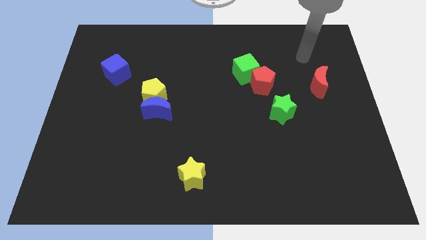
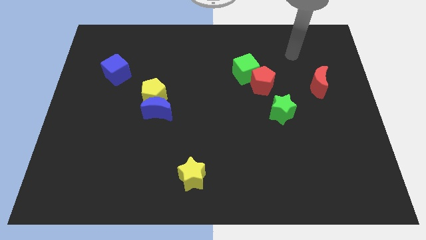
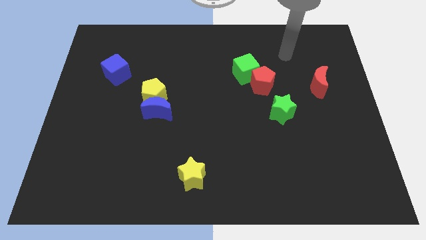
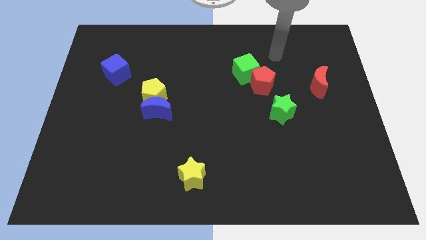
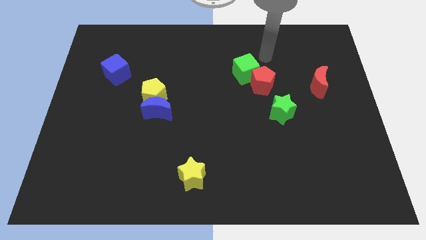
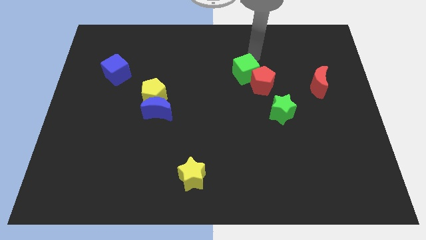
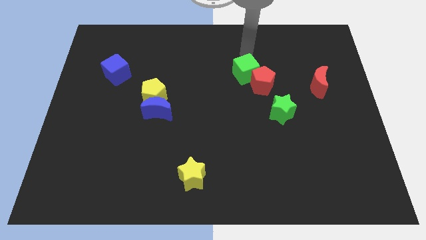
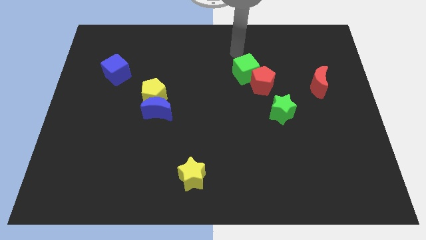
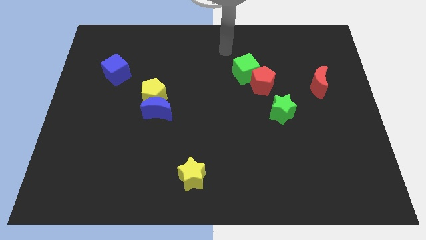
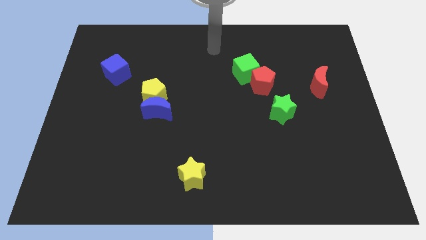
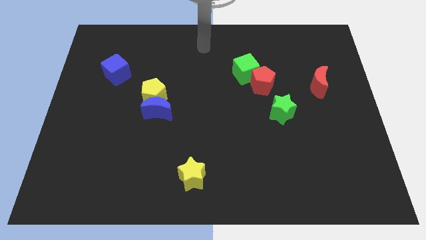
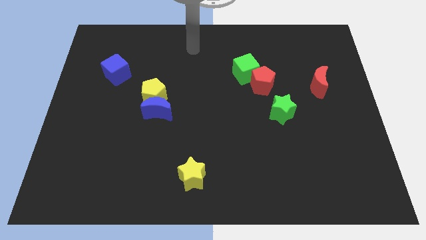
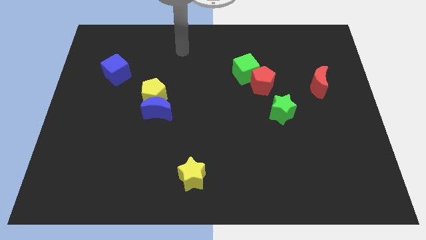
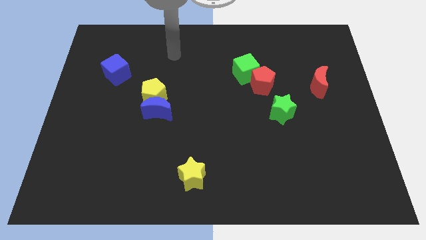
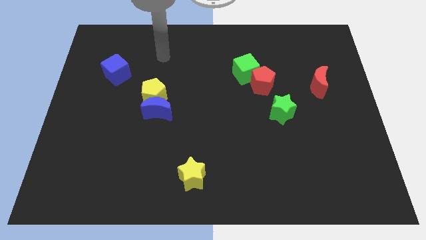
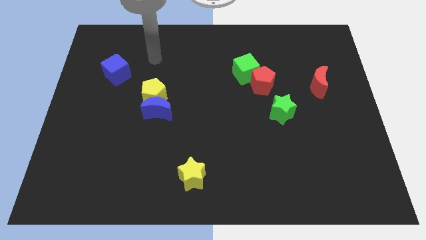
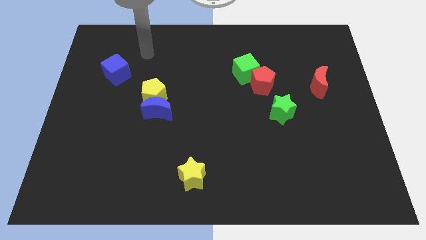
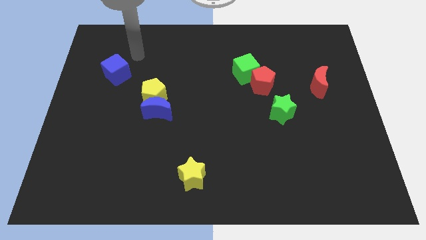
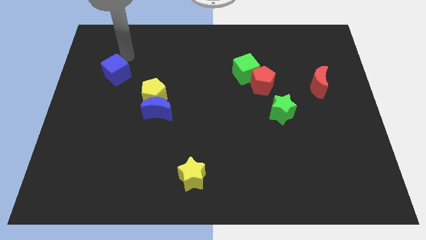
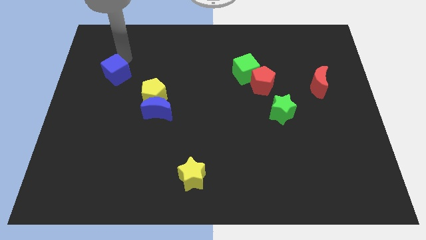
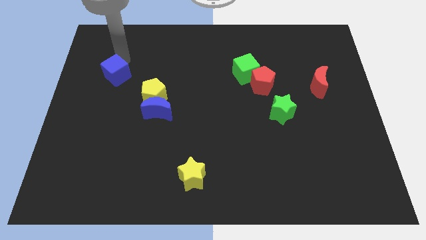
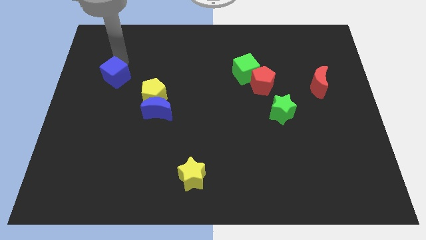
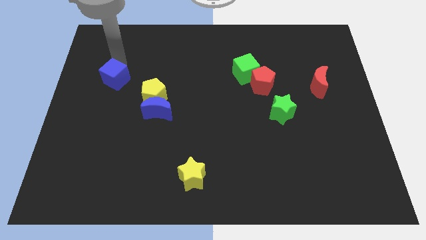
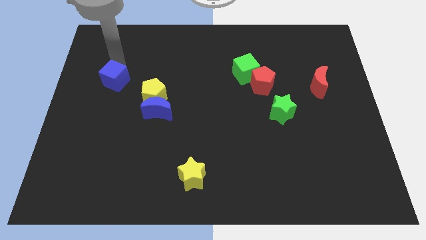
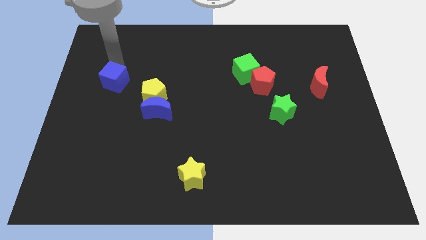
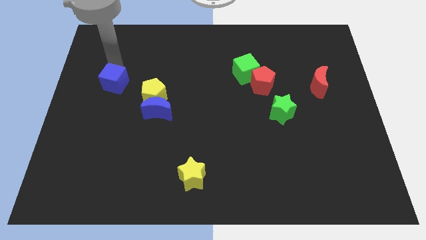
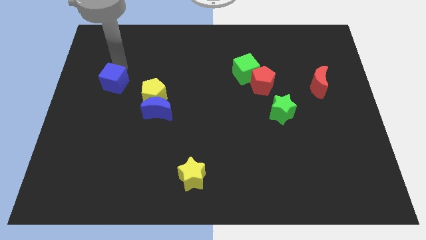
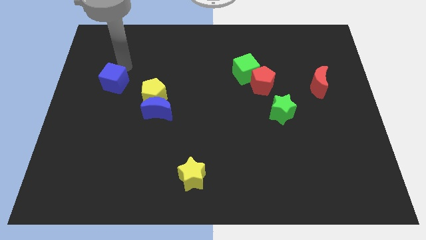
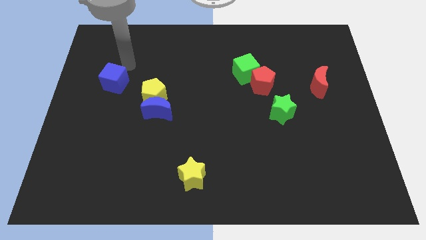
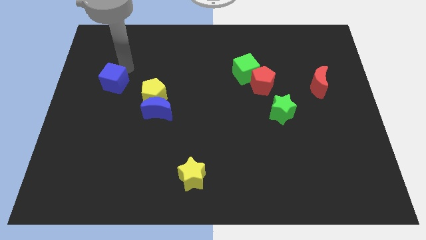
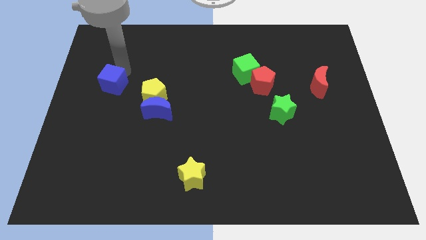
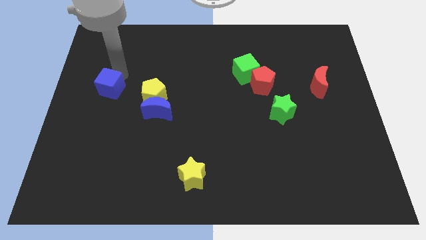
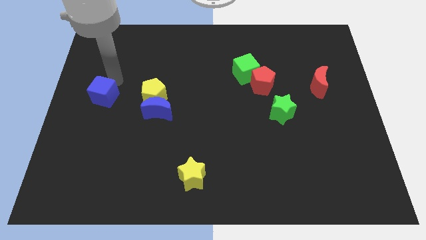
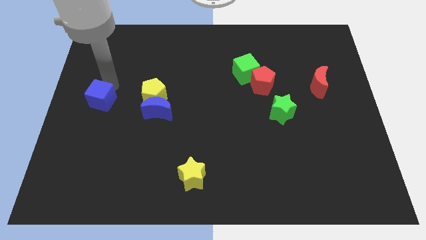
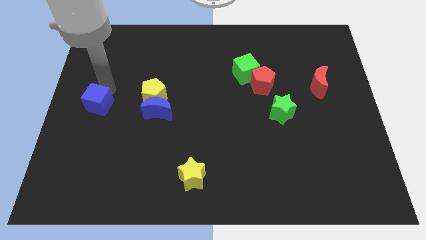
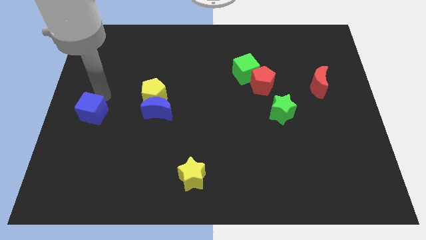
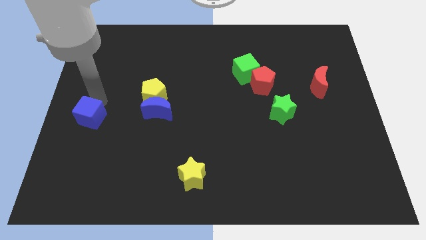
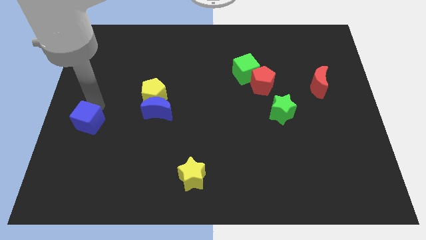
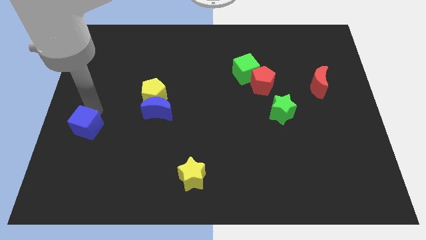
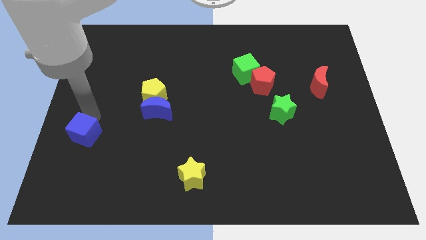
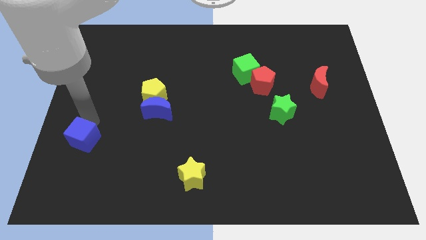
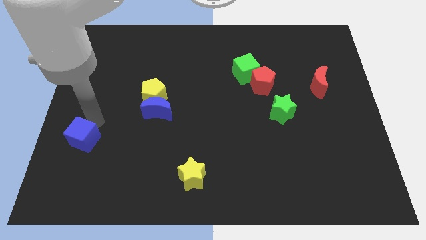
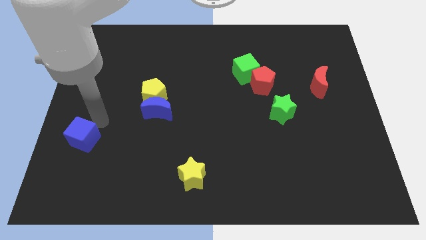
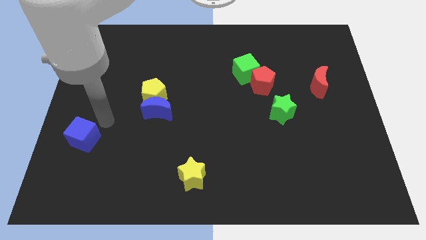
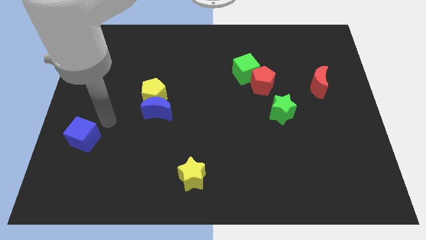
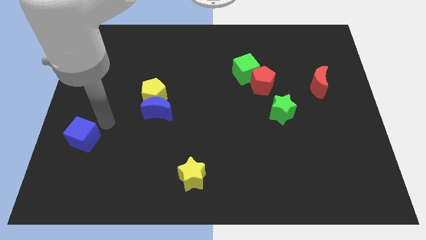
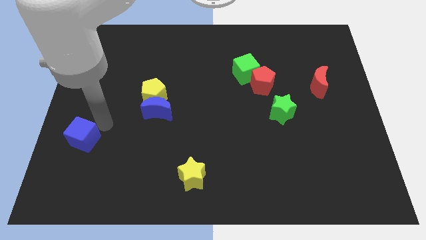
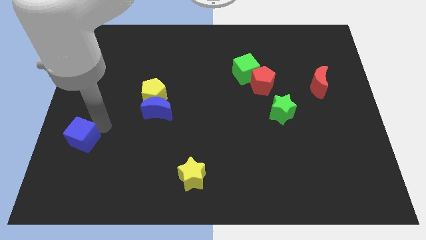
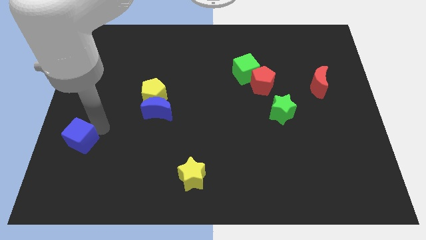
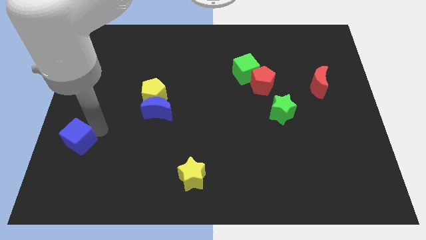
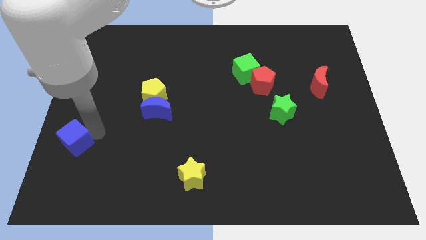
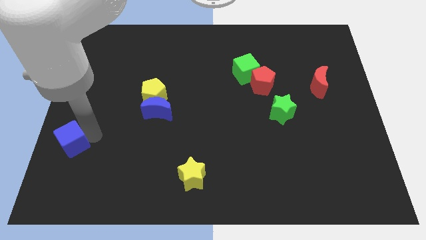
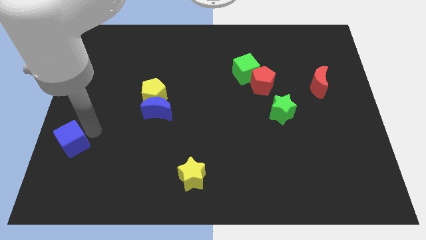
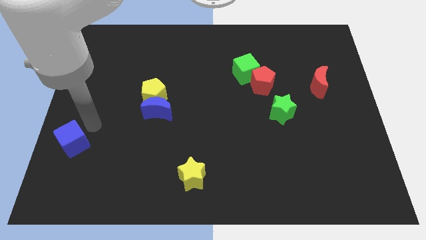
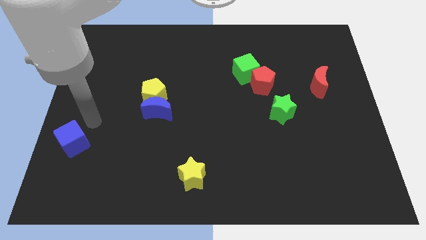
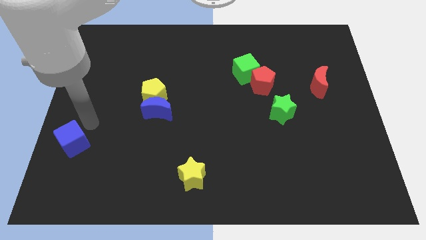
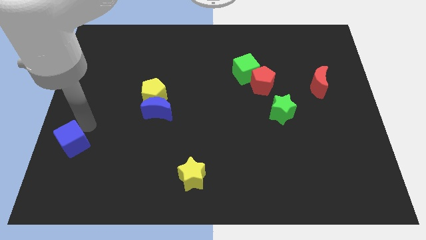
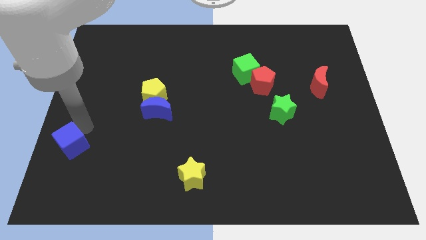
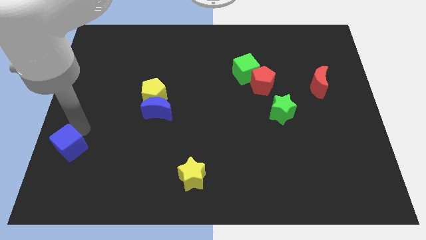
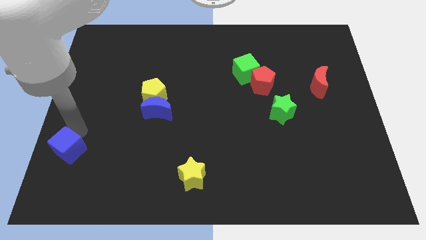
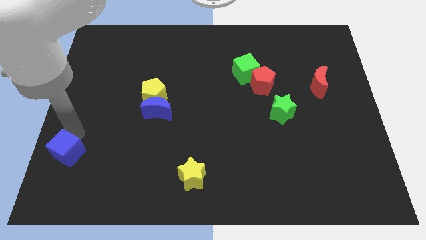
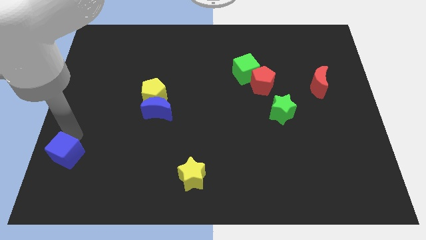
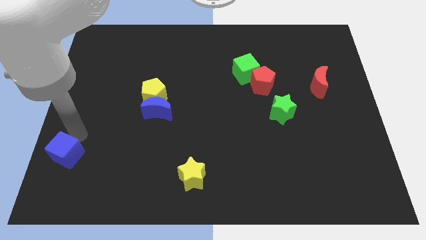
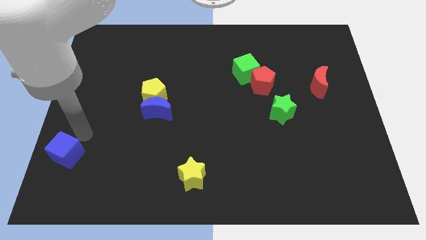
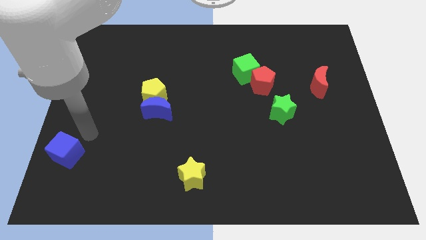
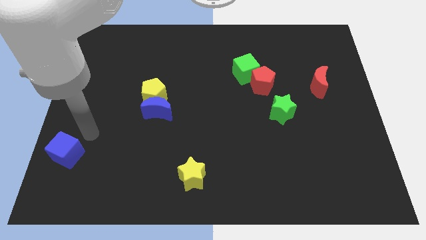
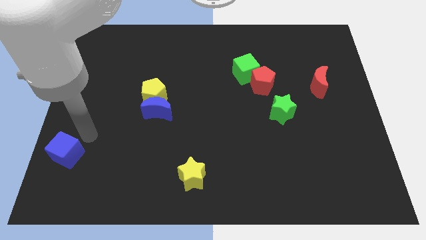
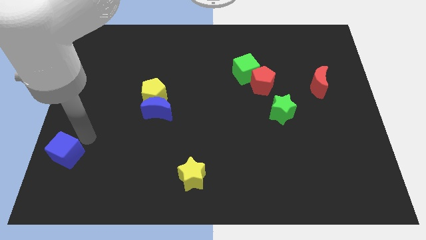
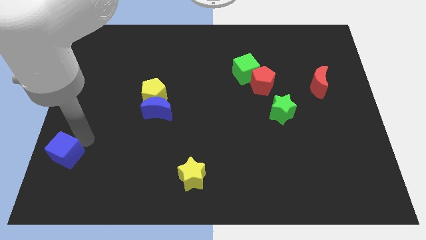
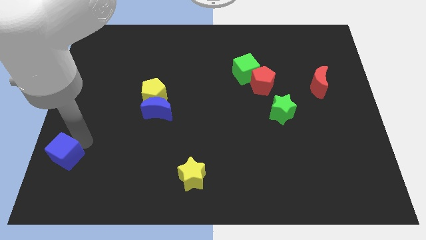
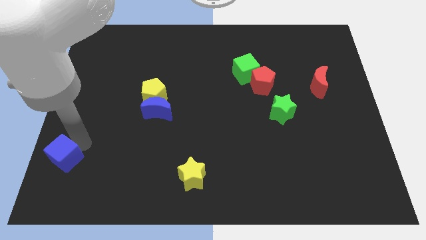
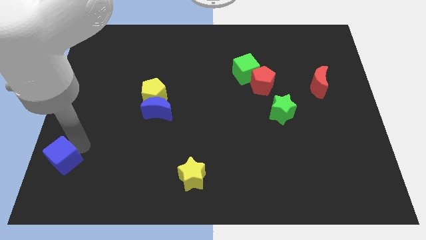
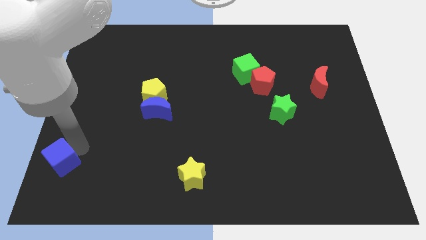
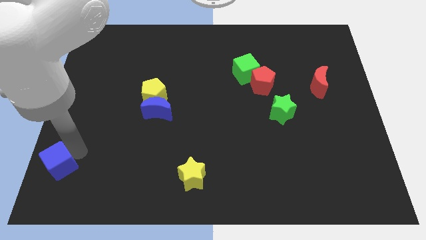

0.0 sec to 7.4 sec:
slide the blue cube to the bottom left corner
